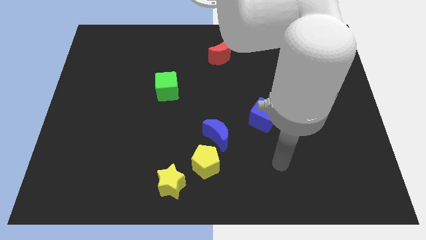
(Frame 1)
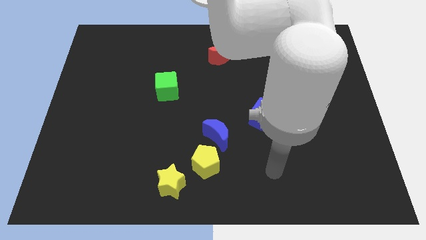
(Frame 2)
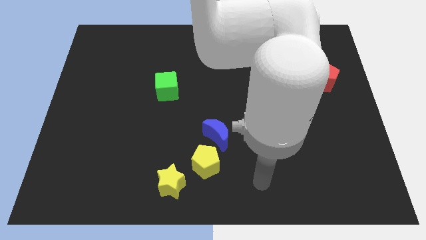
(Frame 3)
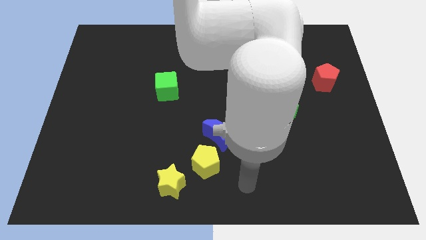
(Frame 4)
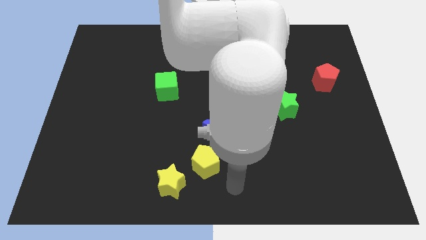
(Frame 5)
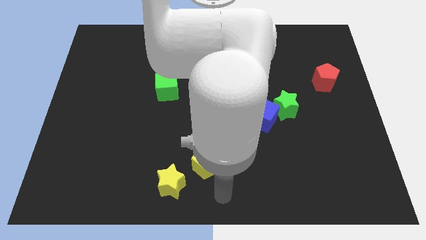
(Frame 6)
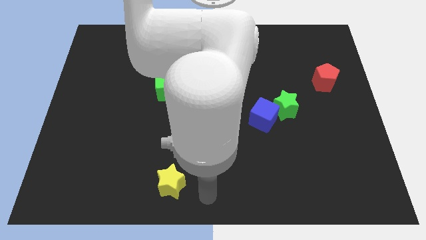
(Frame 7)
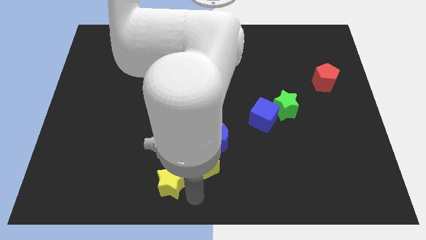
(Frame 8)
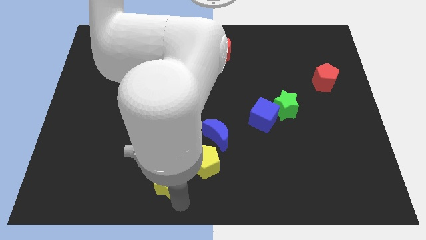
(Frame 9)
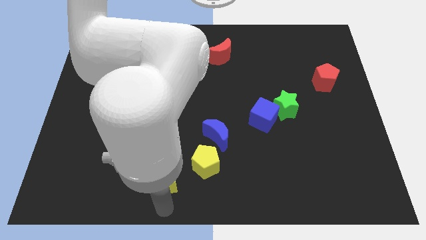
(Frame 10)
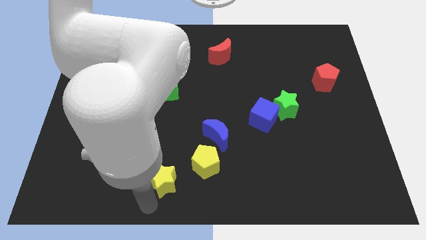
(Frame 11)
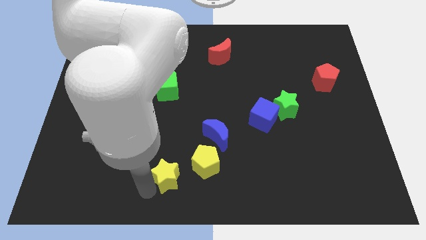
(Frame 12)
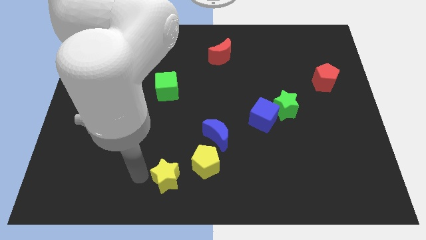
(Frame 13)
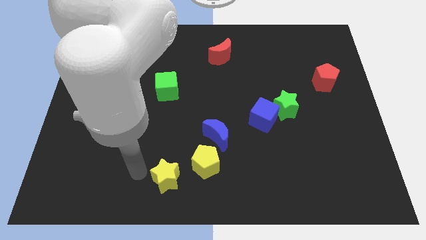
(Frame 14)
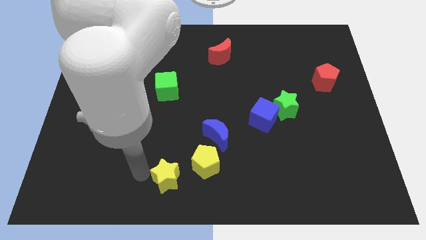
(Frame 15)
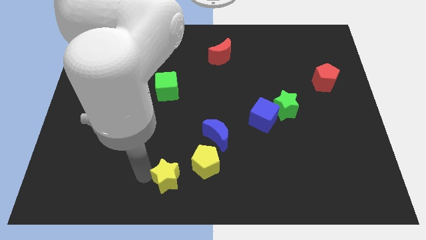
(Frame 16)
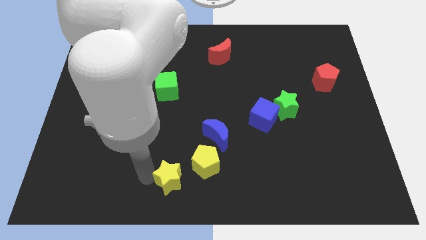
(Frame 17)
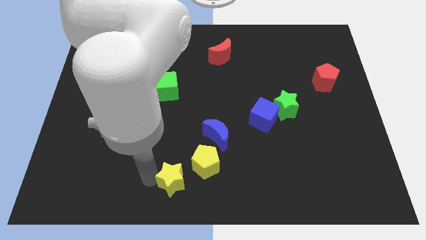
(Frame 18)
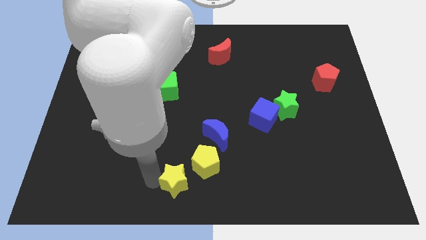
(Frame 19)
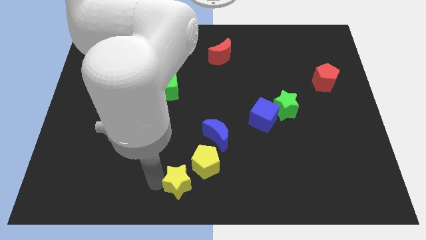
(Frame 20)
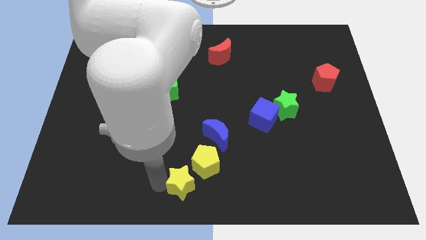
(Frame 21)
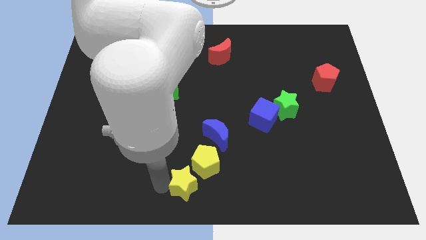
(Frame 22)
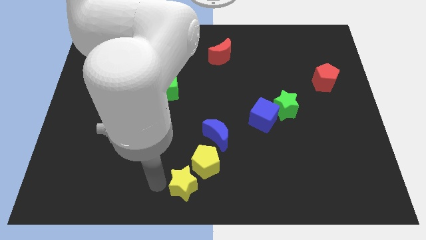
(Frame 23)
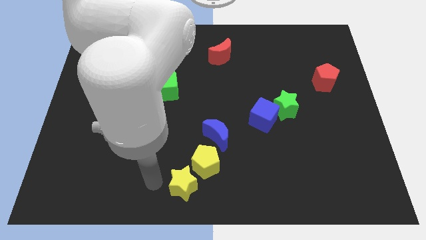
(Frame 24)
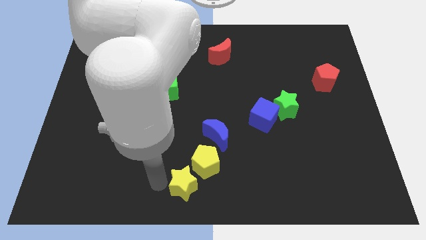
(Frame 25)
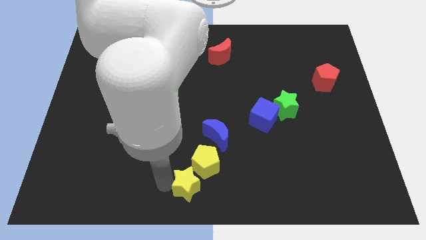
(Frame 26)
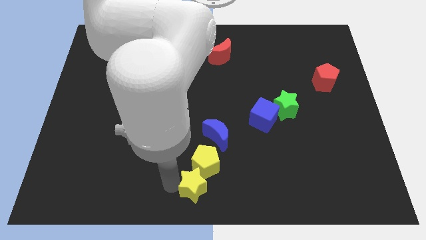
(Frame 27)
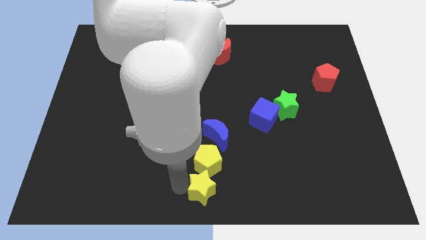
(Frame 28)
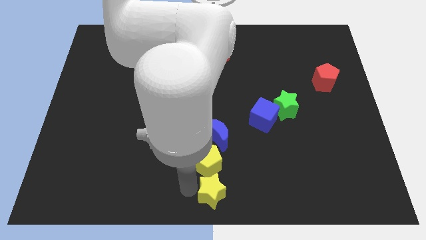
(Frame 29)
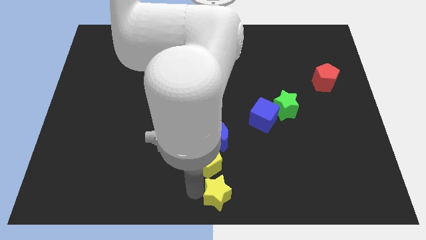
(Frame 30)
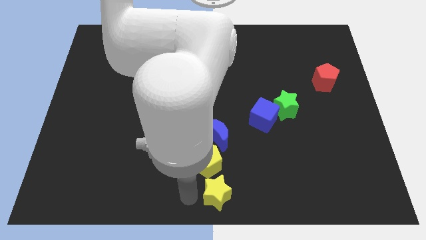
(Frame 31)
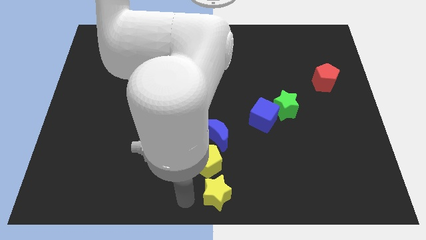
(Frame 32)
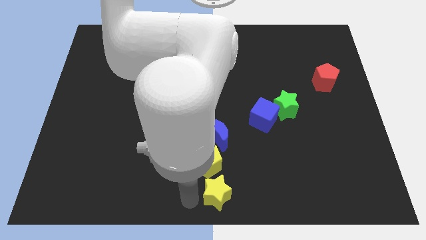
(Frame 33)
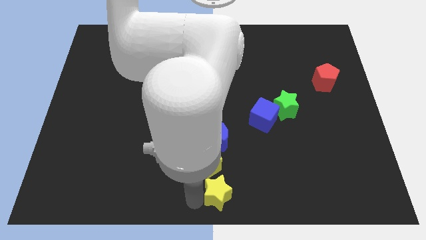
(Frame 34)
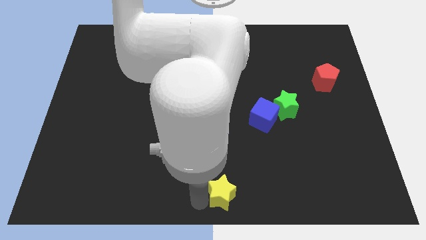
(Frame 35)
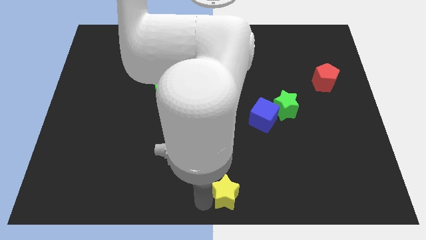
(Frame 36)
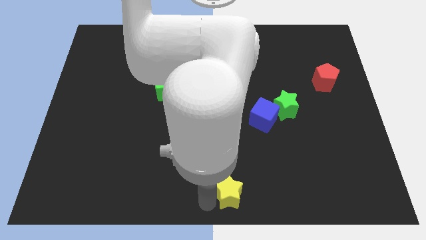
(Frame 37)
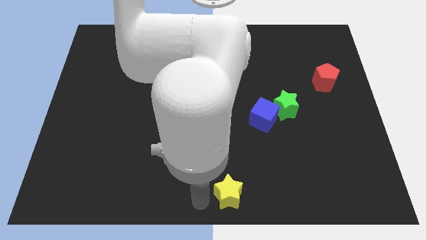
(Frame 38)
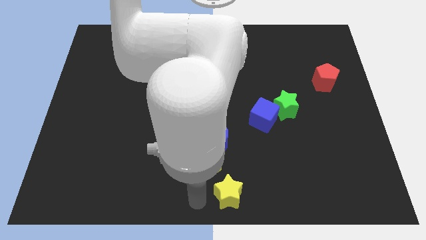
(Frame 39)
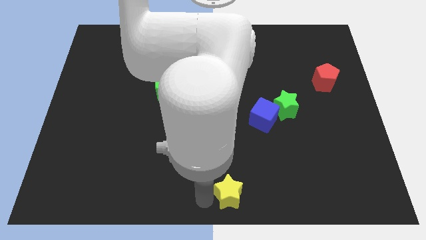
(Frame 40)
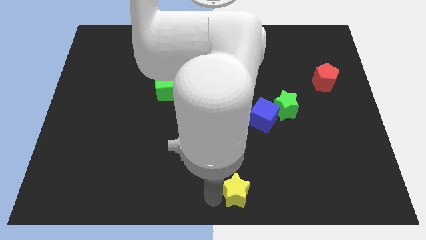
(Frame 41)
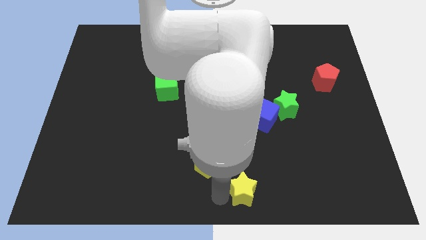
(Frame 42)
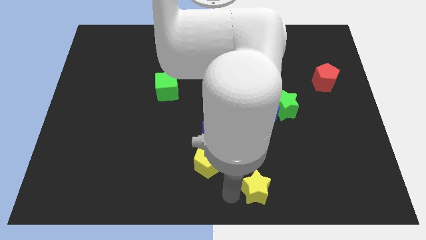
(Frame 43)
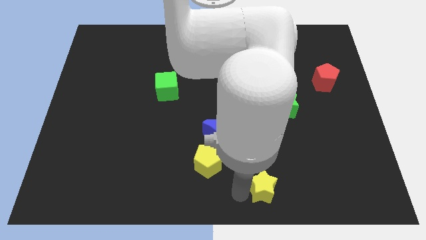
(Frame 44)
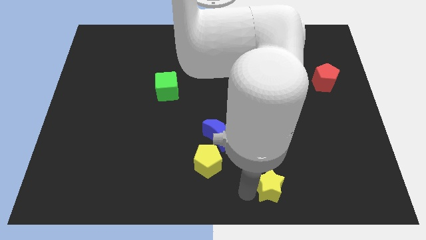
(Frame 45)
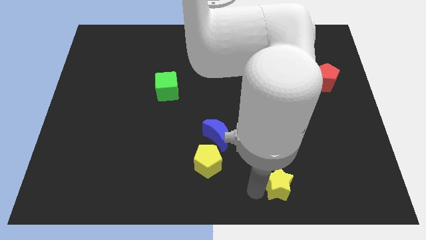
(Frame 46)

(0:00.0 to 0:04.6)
move the yellow star to the right

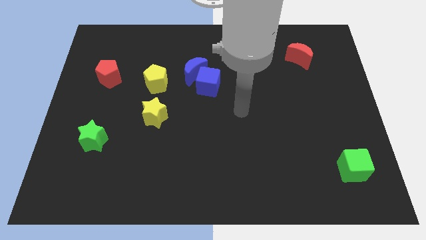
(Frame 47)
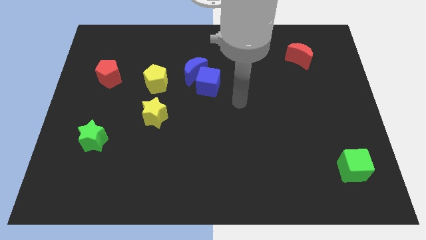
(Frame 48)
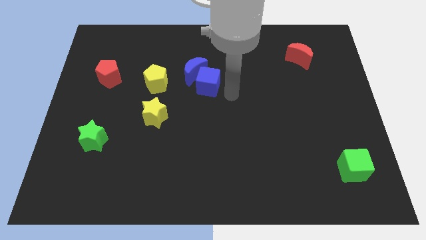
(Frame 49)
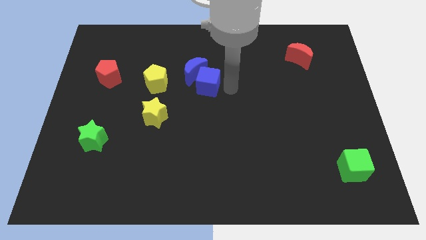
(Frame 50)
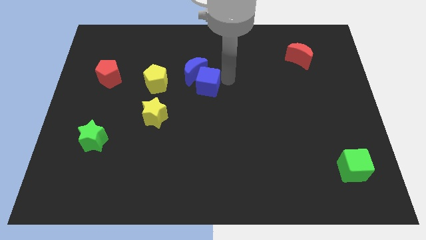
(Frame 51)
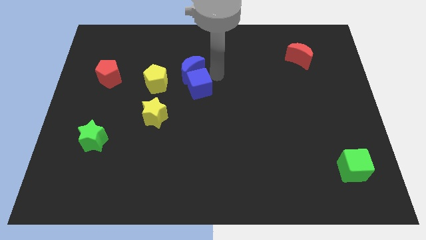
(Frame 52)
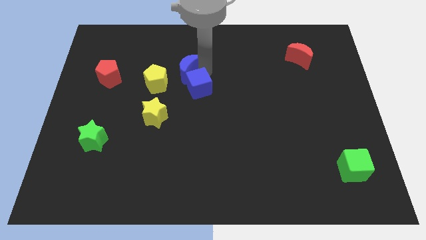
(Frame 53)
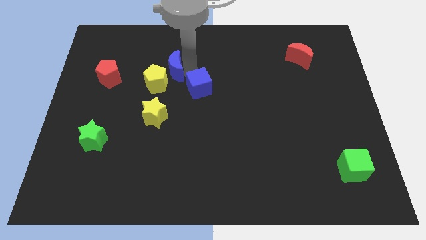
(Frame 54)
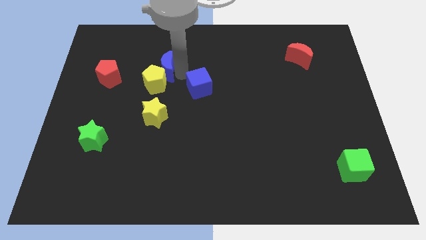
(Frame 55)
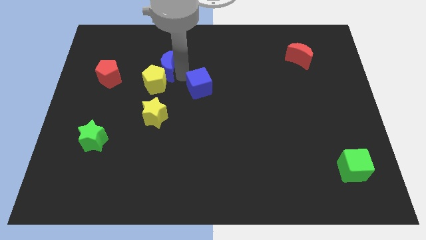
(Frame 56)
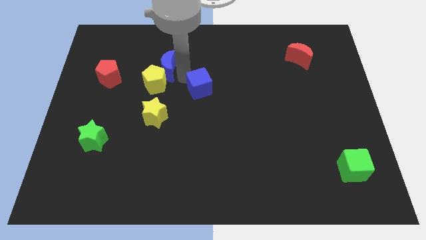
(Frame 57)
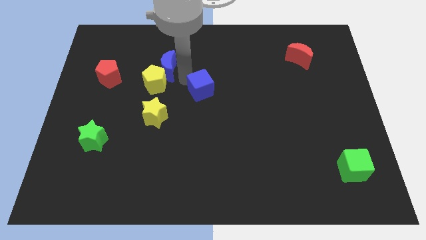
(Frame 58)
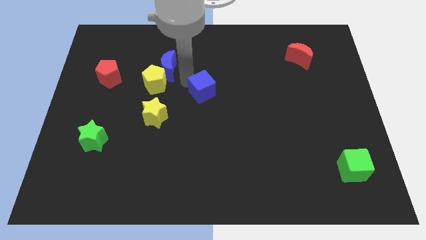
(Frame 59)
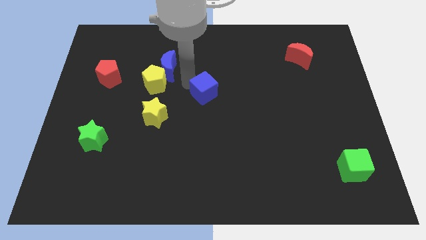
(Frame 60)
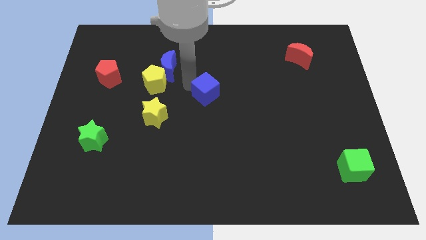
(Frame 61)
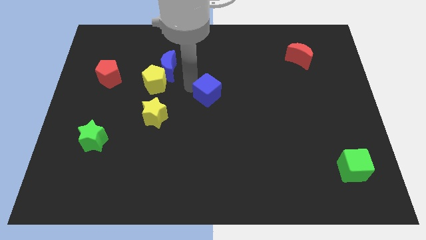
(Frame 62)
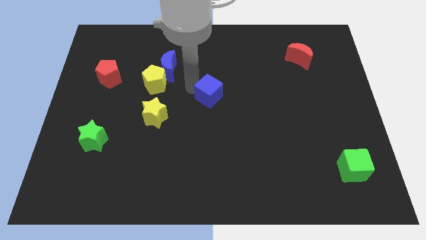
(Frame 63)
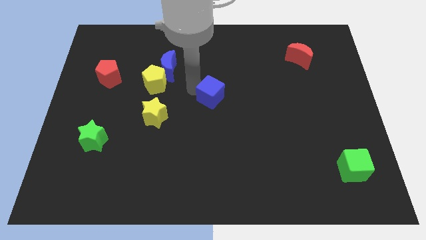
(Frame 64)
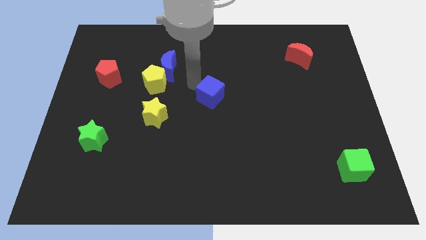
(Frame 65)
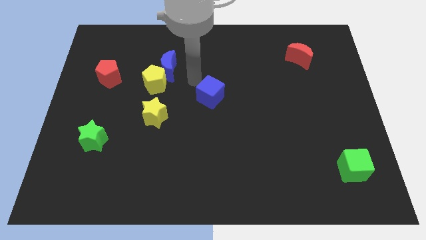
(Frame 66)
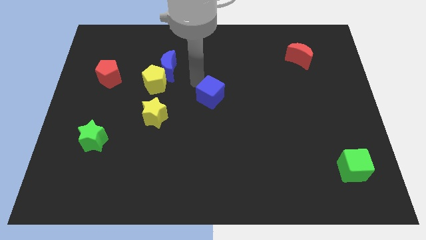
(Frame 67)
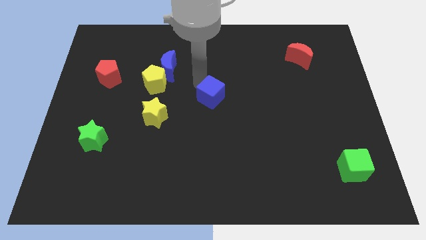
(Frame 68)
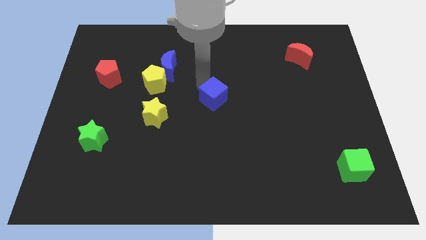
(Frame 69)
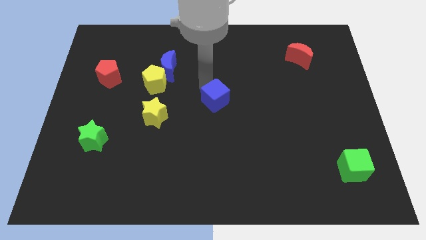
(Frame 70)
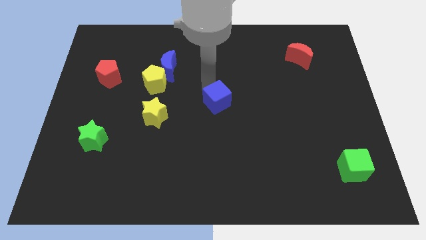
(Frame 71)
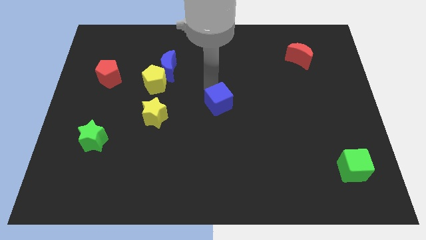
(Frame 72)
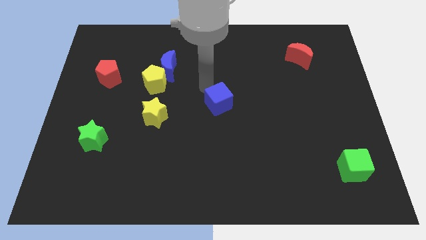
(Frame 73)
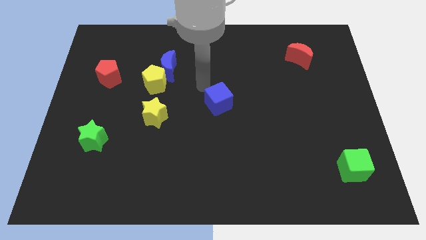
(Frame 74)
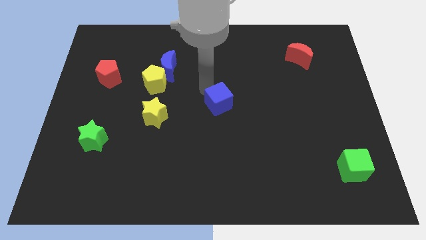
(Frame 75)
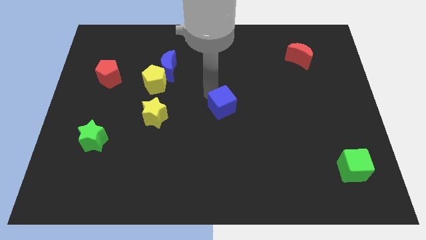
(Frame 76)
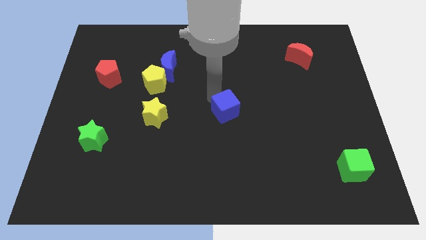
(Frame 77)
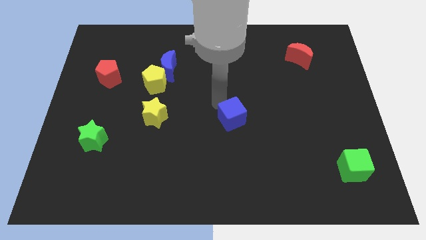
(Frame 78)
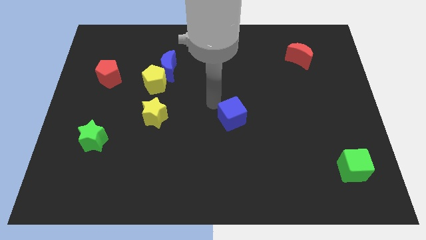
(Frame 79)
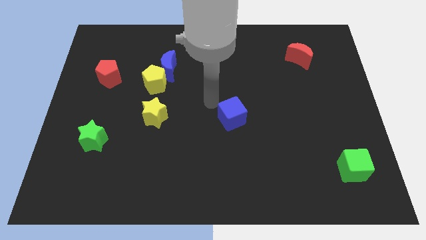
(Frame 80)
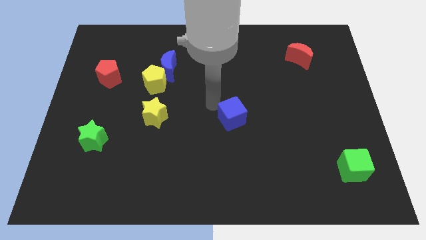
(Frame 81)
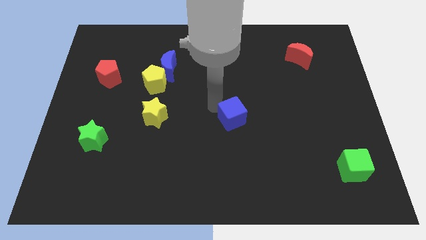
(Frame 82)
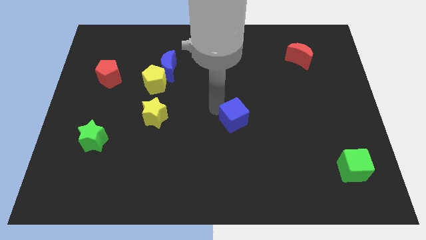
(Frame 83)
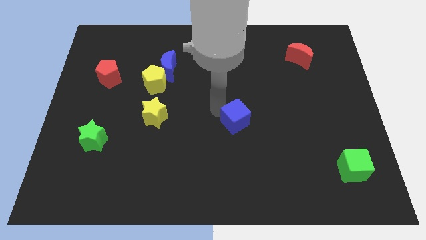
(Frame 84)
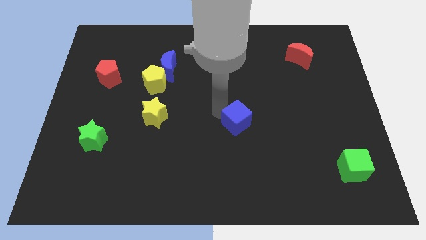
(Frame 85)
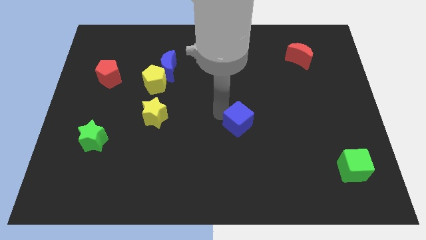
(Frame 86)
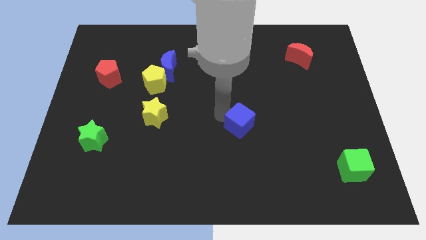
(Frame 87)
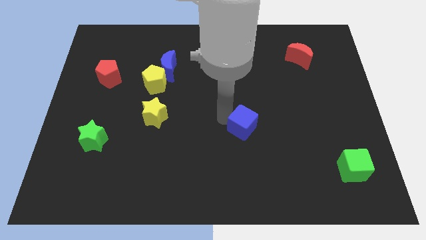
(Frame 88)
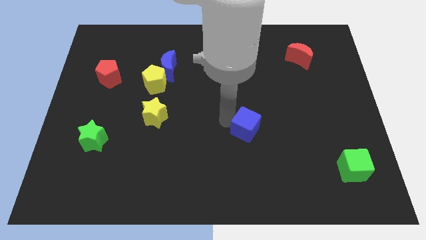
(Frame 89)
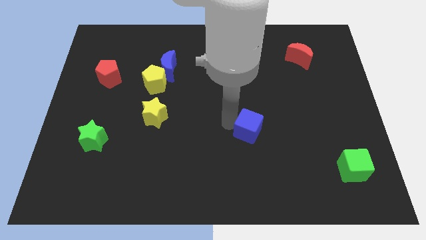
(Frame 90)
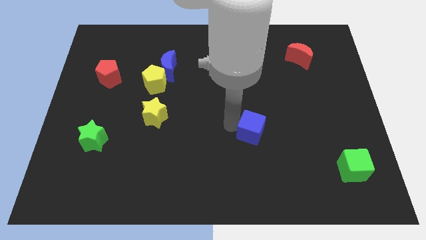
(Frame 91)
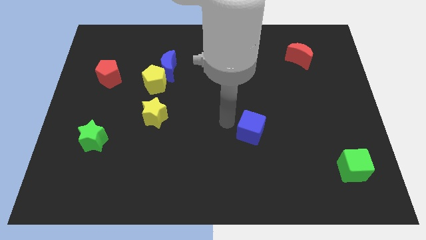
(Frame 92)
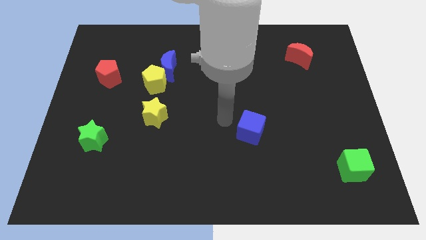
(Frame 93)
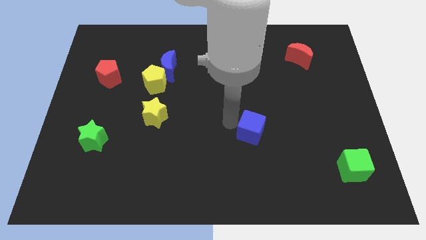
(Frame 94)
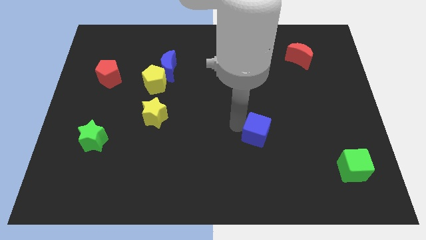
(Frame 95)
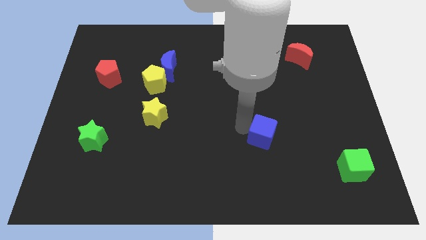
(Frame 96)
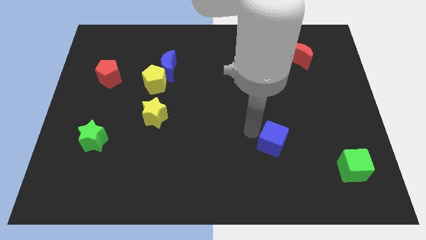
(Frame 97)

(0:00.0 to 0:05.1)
move the blue cube down and right diagonally
